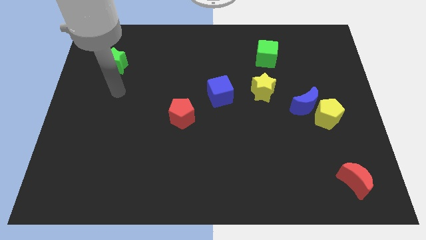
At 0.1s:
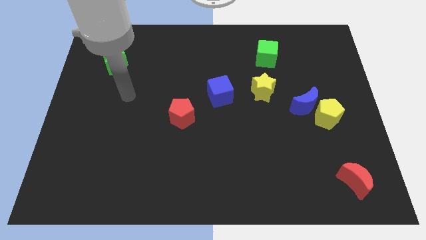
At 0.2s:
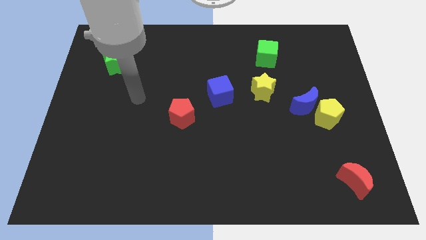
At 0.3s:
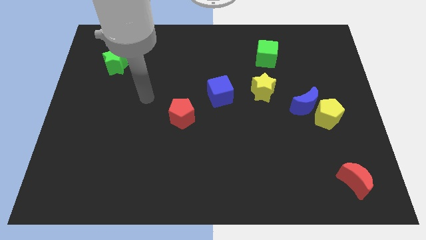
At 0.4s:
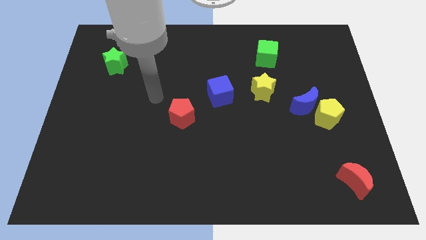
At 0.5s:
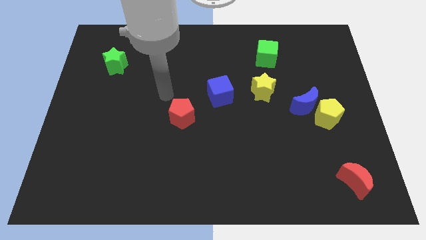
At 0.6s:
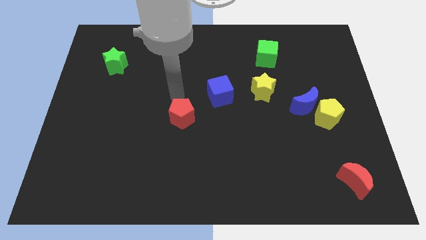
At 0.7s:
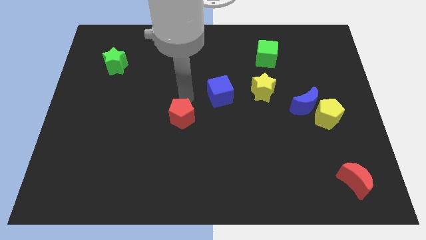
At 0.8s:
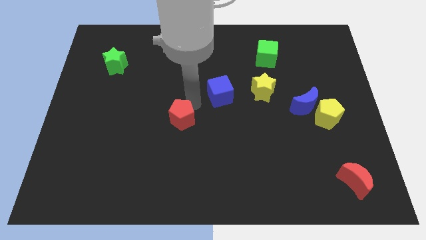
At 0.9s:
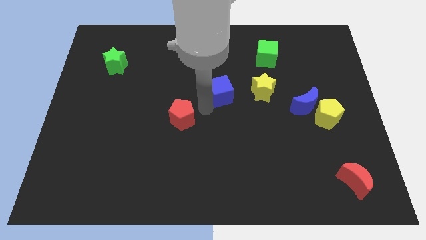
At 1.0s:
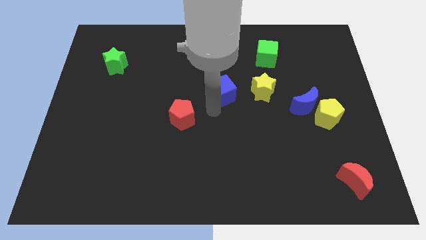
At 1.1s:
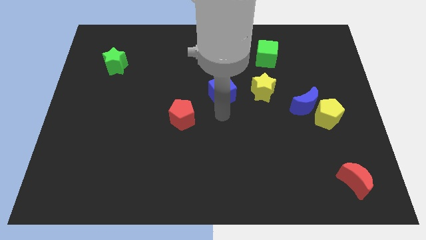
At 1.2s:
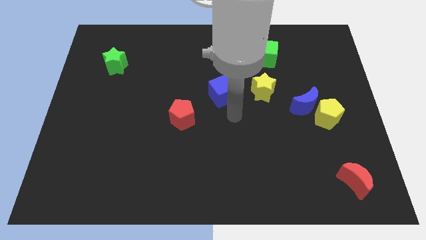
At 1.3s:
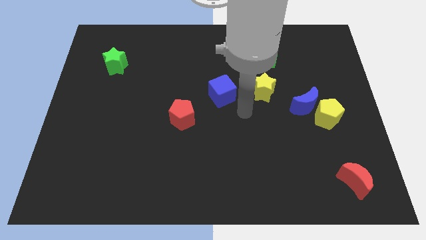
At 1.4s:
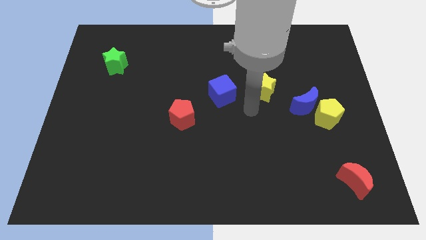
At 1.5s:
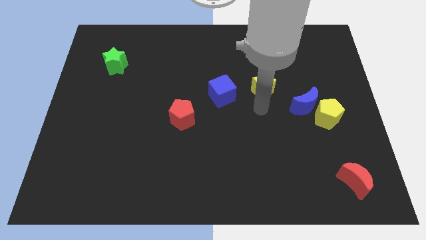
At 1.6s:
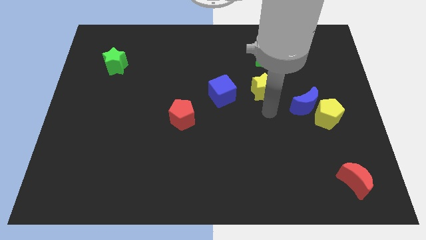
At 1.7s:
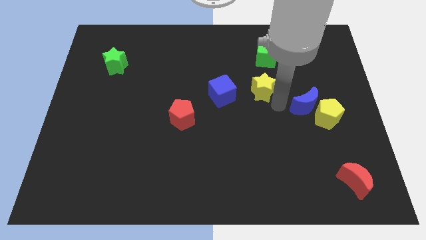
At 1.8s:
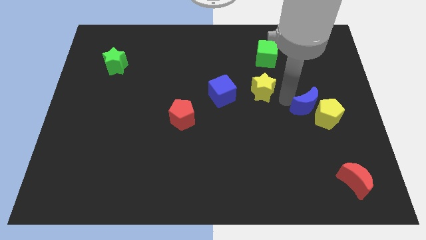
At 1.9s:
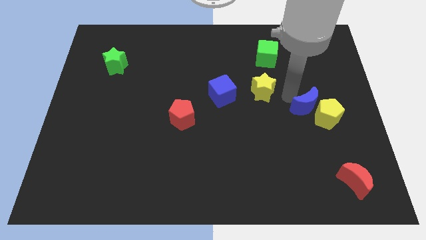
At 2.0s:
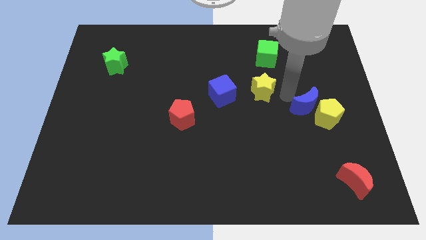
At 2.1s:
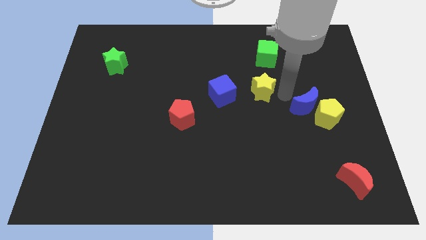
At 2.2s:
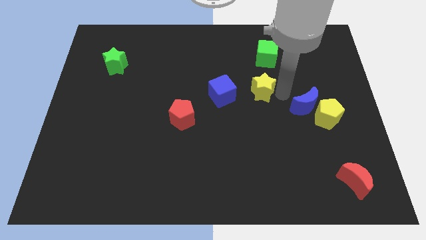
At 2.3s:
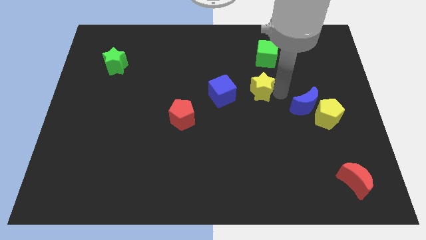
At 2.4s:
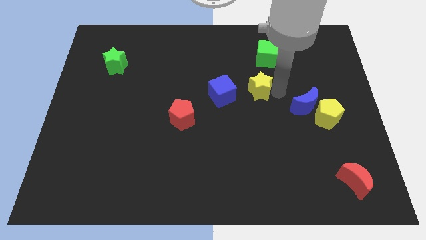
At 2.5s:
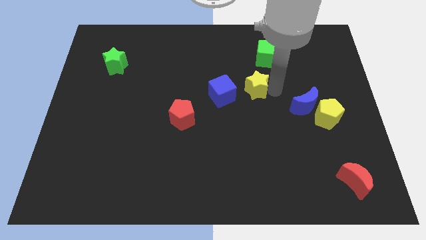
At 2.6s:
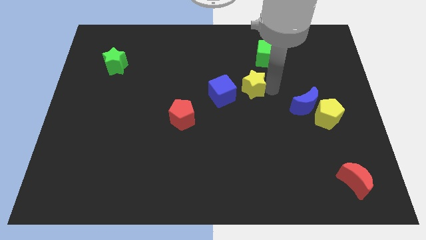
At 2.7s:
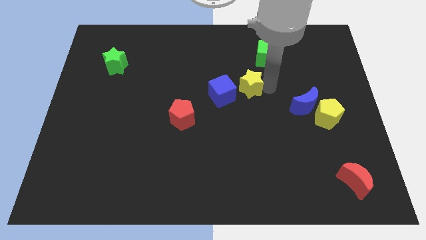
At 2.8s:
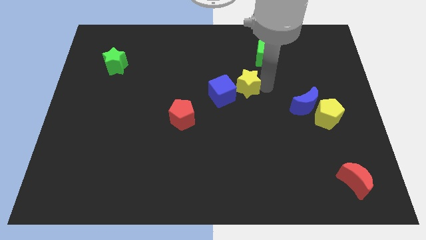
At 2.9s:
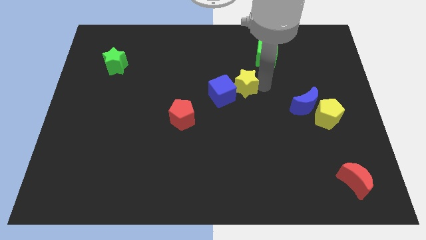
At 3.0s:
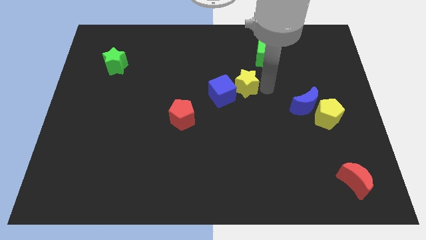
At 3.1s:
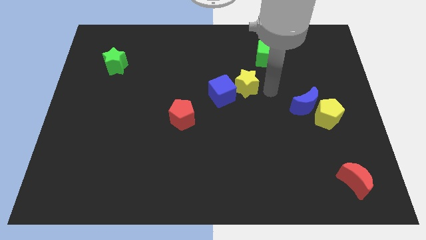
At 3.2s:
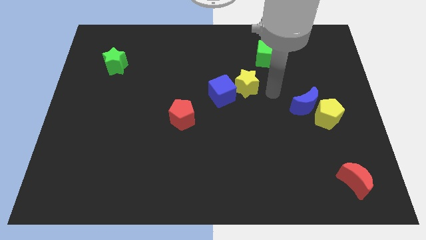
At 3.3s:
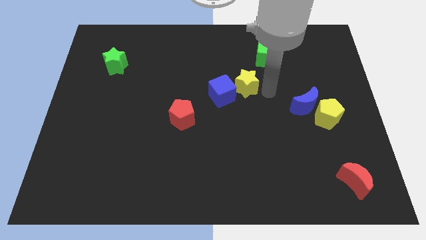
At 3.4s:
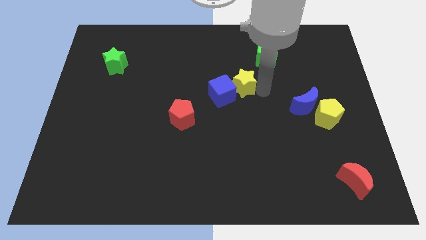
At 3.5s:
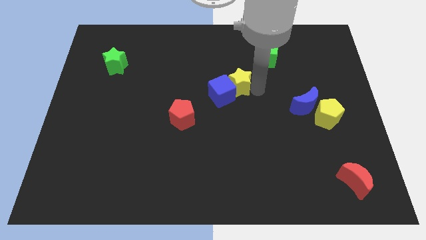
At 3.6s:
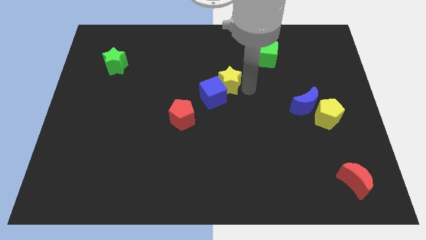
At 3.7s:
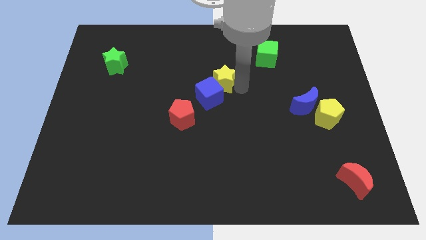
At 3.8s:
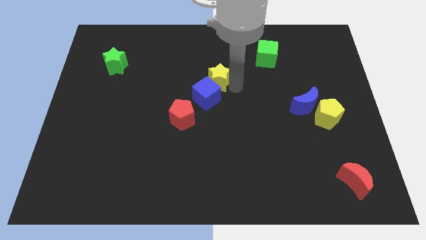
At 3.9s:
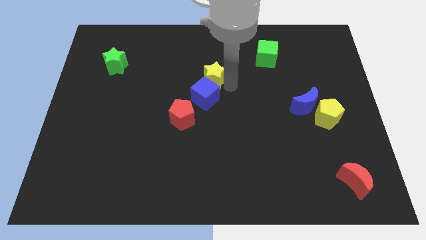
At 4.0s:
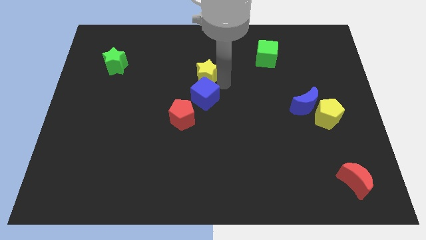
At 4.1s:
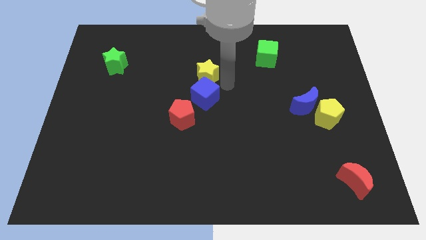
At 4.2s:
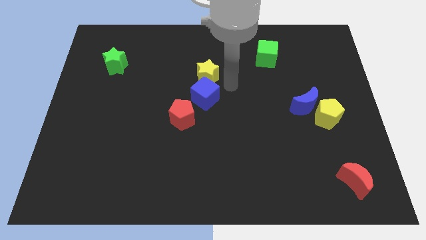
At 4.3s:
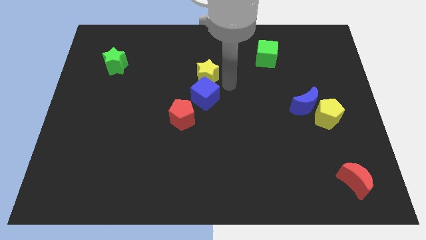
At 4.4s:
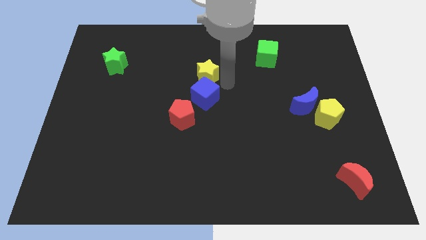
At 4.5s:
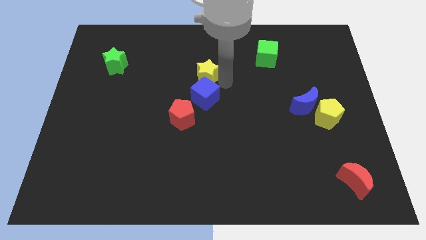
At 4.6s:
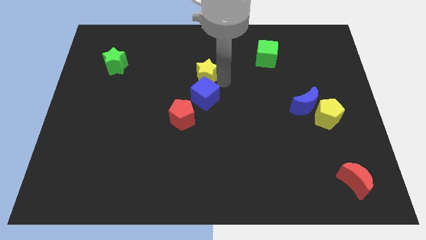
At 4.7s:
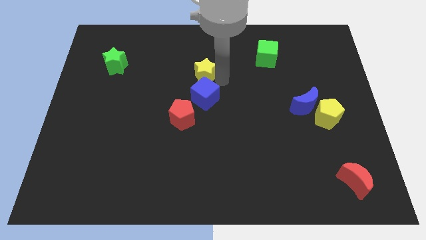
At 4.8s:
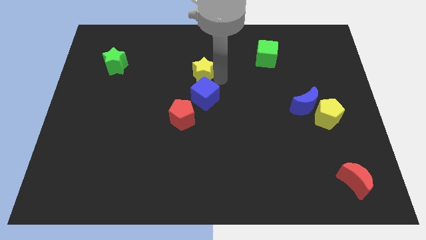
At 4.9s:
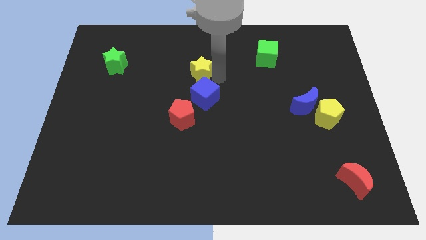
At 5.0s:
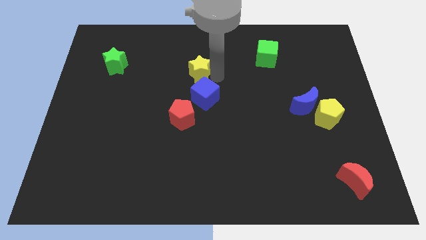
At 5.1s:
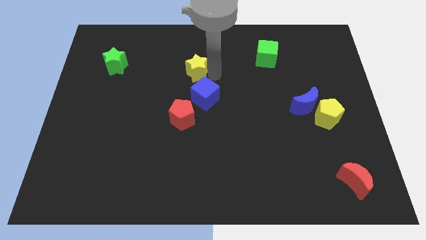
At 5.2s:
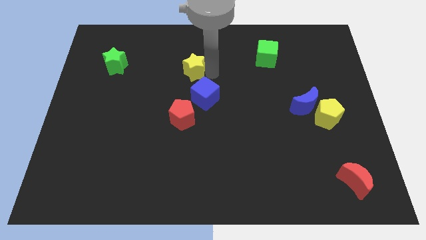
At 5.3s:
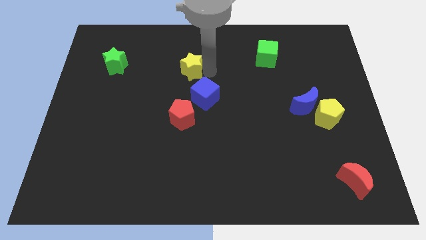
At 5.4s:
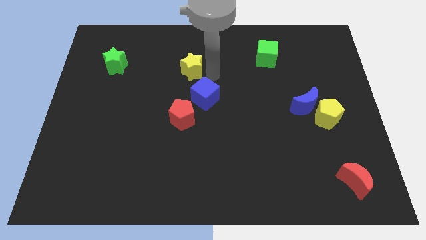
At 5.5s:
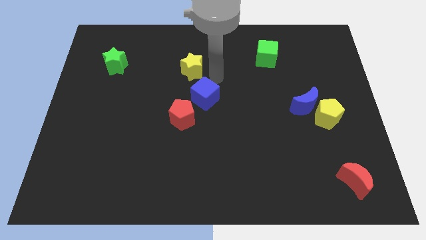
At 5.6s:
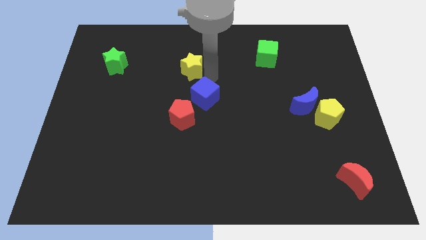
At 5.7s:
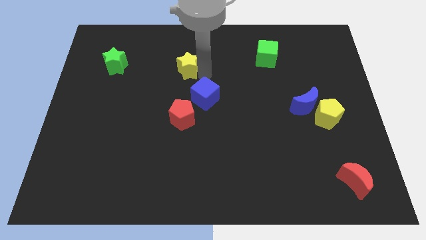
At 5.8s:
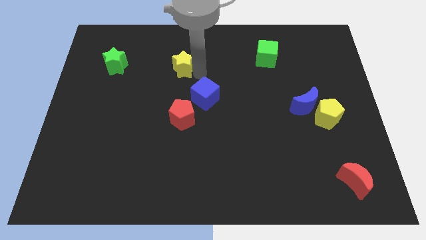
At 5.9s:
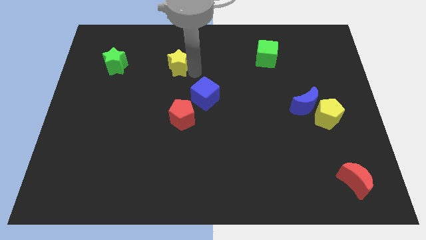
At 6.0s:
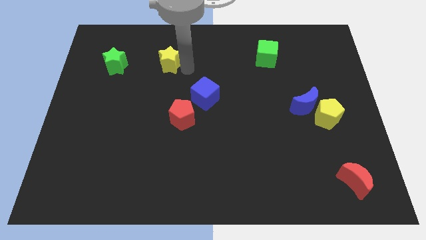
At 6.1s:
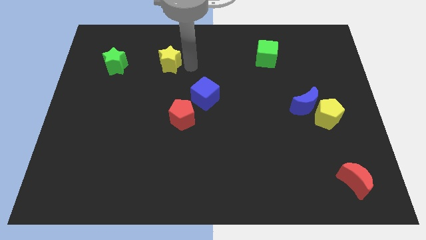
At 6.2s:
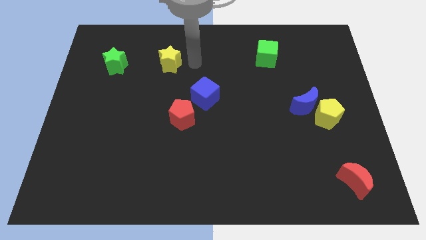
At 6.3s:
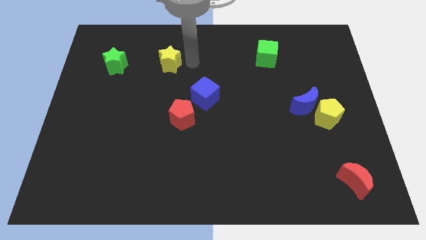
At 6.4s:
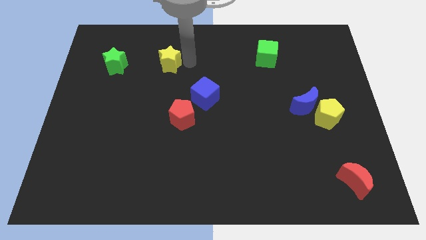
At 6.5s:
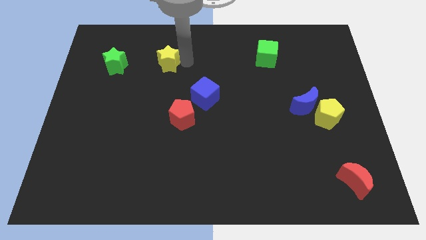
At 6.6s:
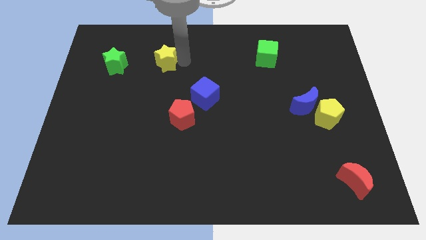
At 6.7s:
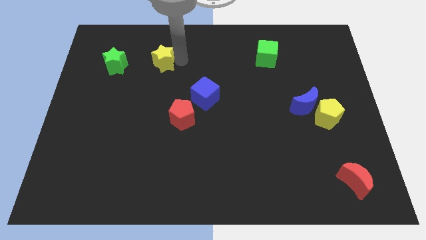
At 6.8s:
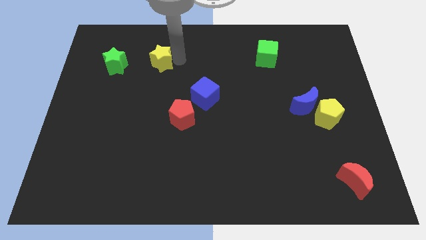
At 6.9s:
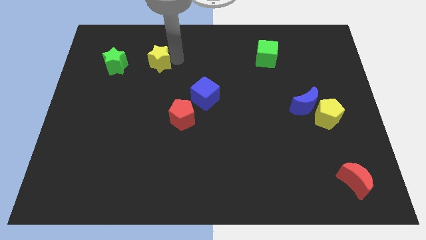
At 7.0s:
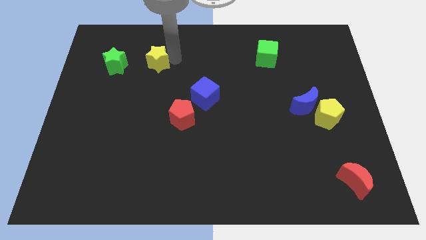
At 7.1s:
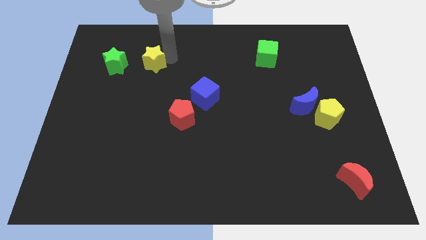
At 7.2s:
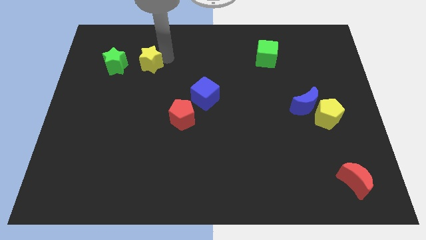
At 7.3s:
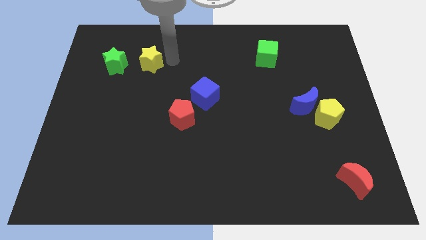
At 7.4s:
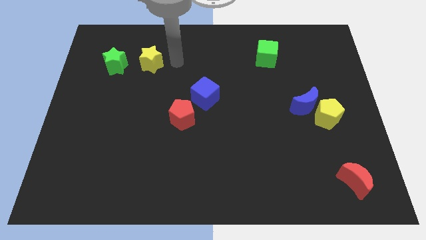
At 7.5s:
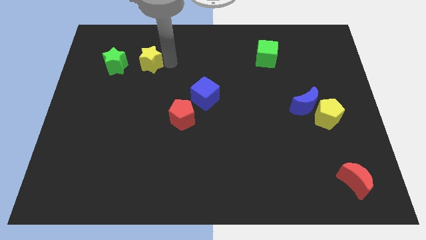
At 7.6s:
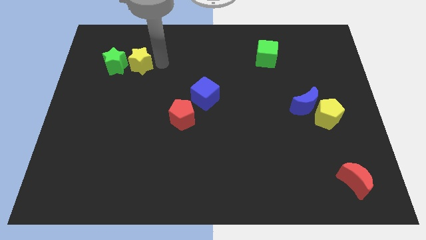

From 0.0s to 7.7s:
slide the yellow star to the green star

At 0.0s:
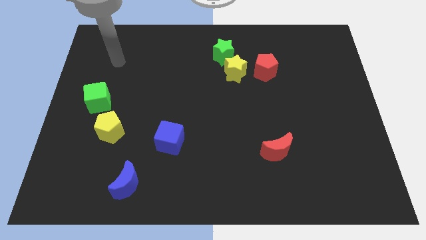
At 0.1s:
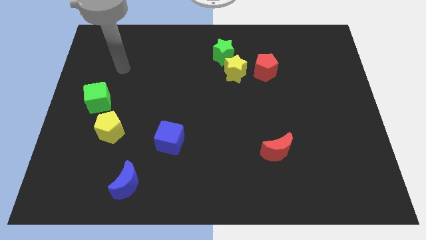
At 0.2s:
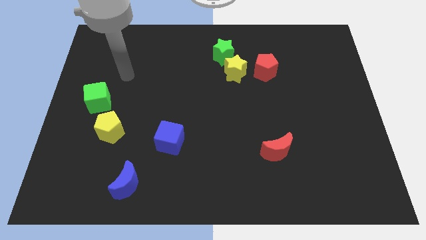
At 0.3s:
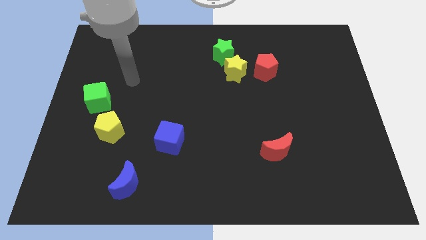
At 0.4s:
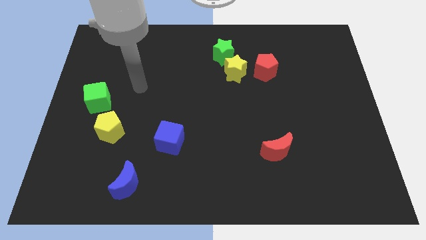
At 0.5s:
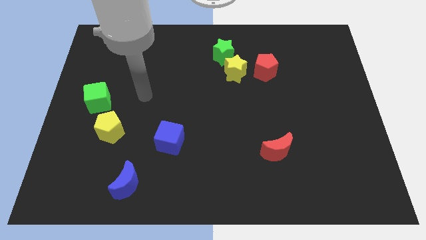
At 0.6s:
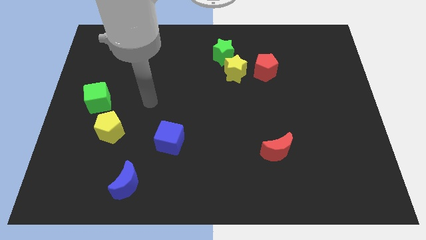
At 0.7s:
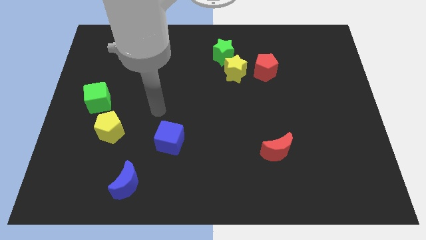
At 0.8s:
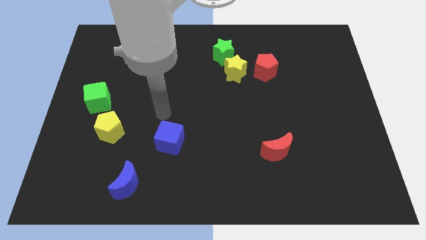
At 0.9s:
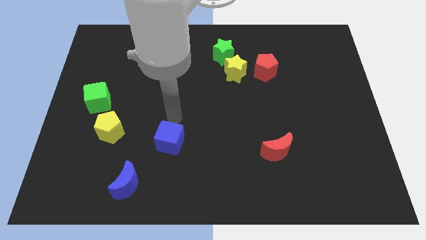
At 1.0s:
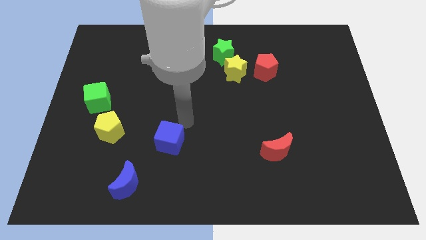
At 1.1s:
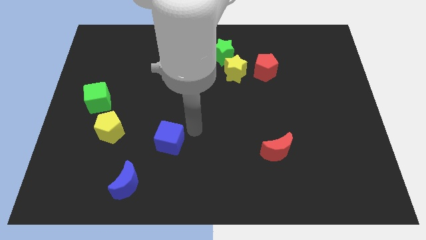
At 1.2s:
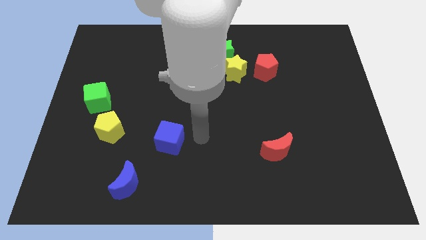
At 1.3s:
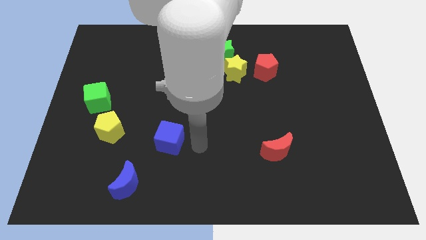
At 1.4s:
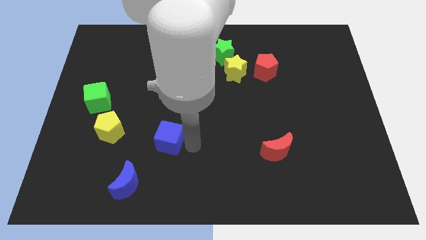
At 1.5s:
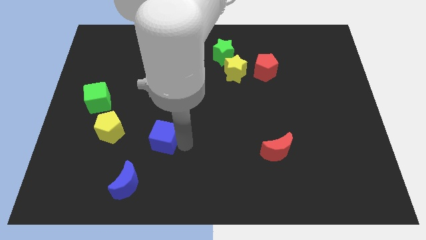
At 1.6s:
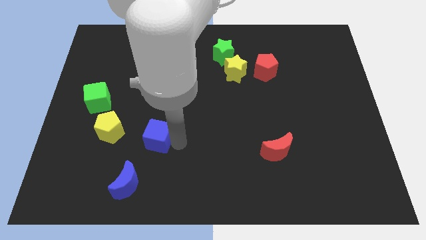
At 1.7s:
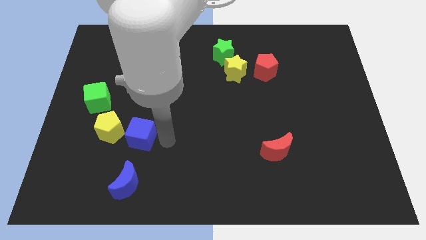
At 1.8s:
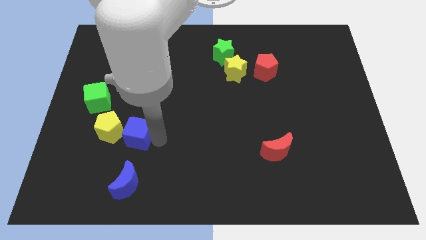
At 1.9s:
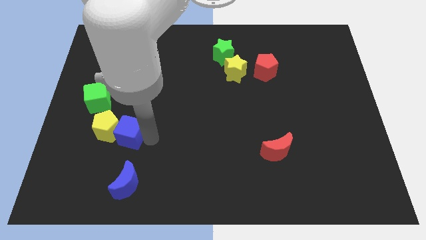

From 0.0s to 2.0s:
push the blue cube next to the yellow pentagon
